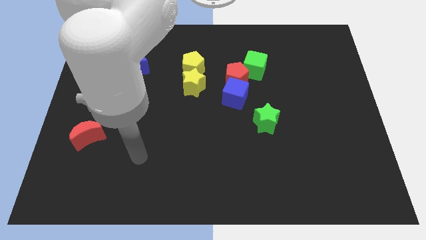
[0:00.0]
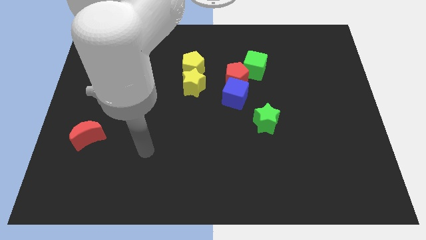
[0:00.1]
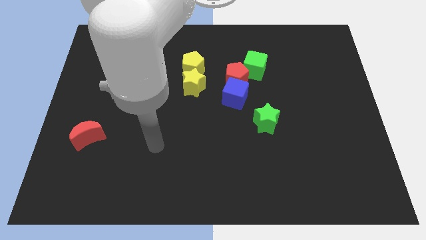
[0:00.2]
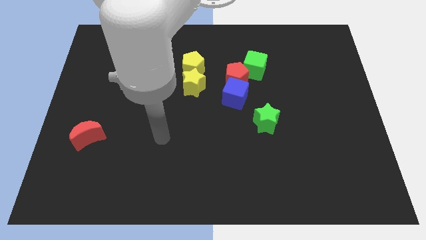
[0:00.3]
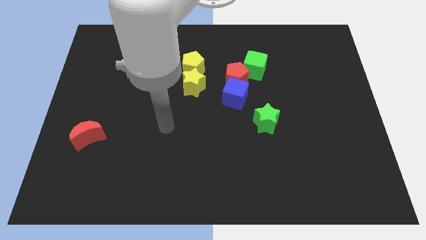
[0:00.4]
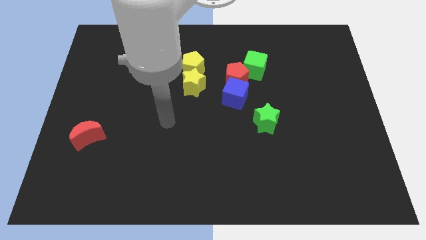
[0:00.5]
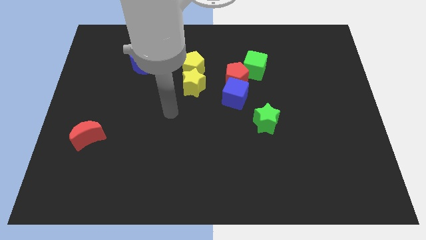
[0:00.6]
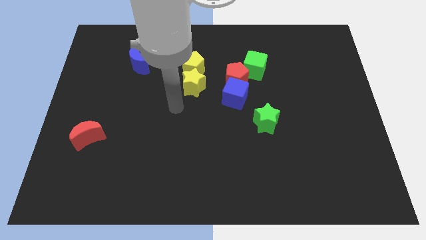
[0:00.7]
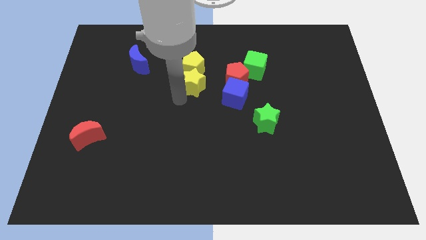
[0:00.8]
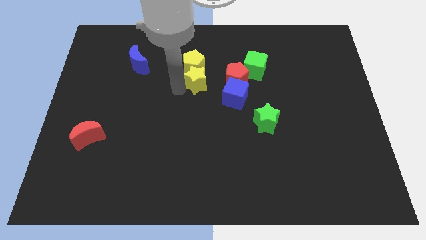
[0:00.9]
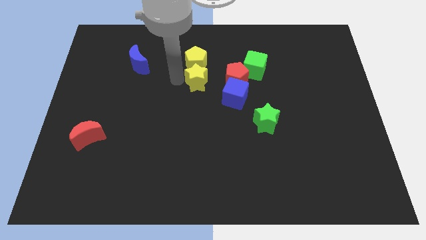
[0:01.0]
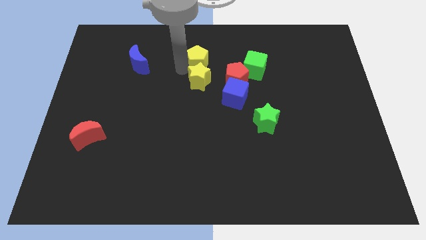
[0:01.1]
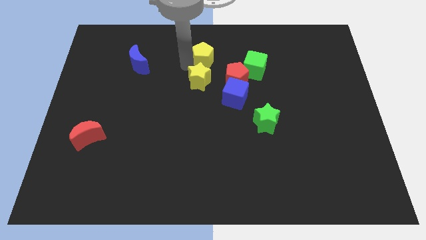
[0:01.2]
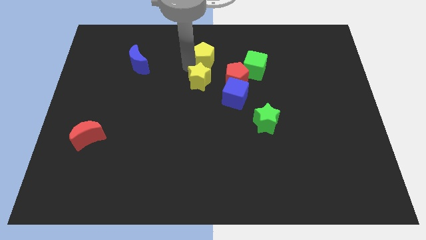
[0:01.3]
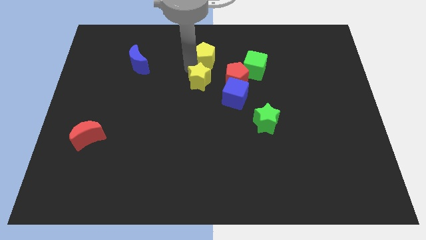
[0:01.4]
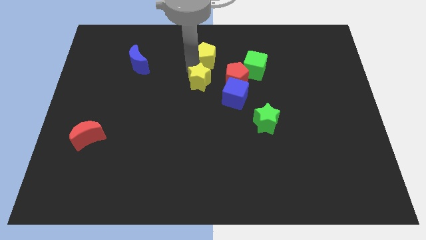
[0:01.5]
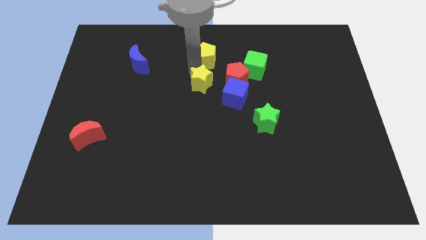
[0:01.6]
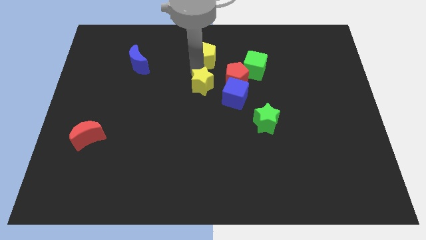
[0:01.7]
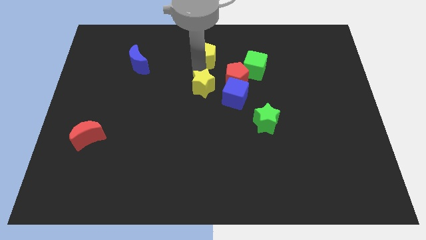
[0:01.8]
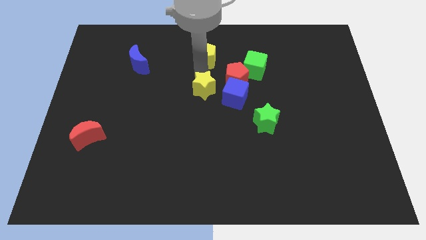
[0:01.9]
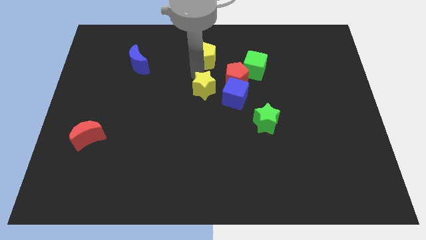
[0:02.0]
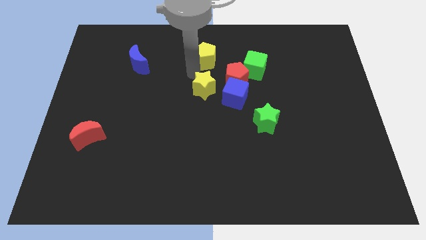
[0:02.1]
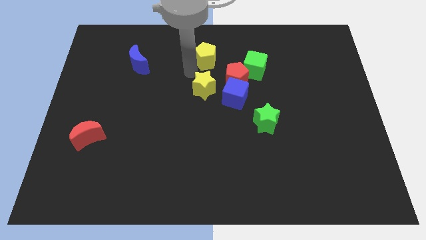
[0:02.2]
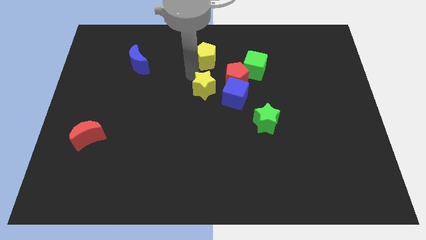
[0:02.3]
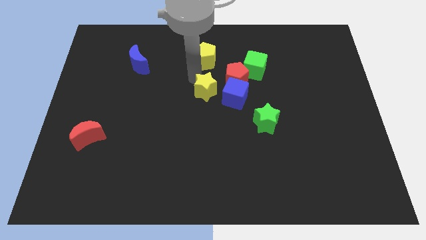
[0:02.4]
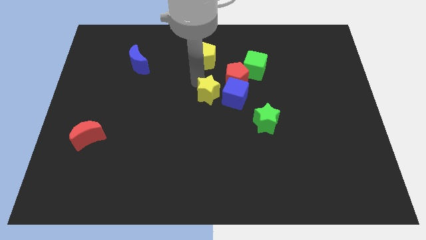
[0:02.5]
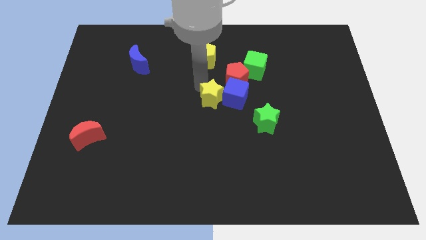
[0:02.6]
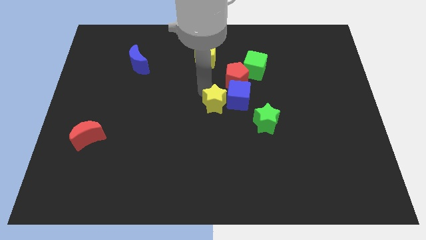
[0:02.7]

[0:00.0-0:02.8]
push the yellow star downwards and to the right diagonally a little

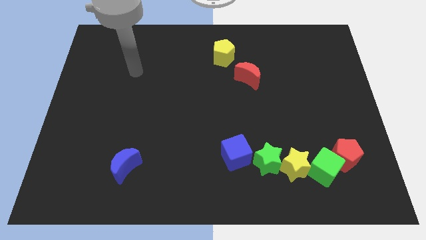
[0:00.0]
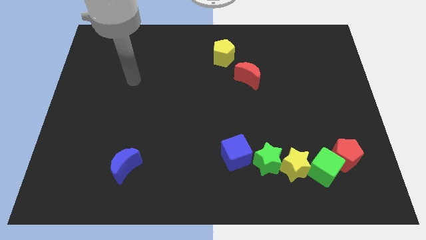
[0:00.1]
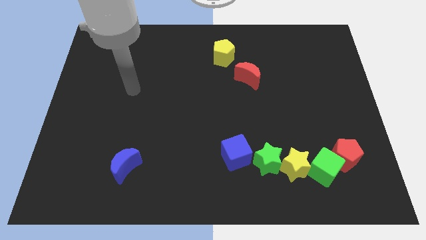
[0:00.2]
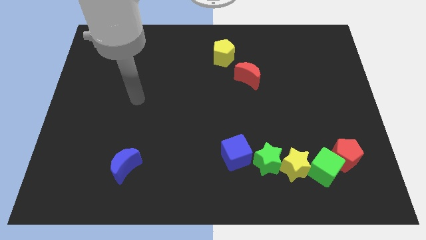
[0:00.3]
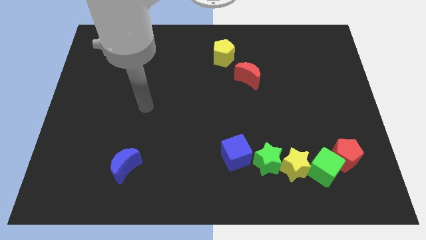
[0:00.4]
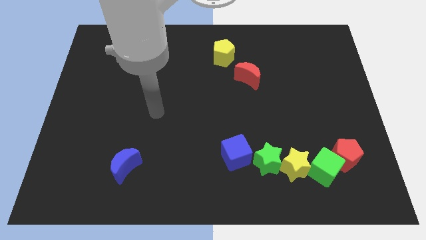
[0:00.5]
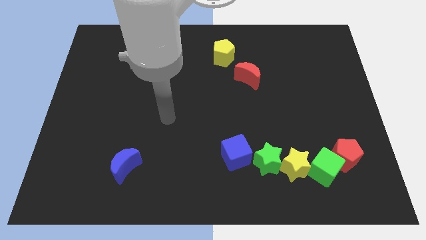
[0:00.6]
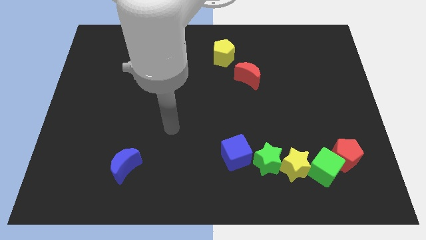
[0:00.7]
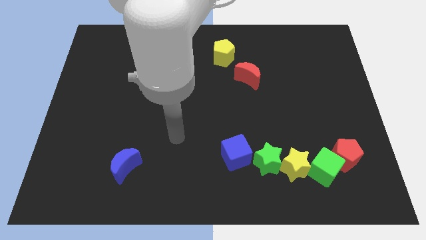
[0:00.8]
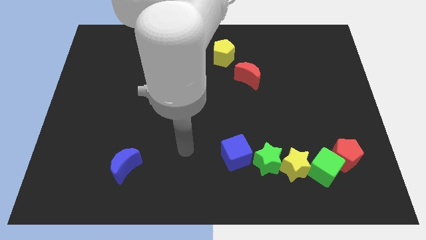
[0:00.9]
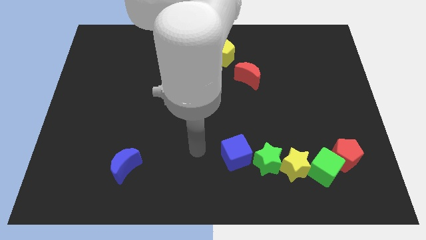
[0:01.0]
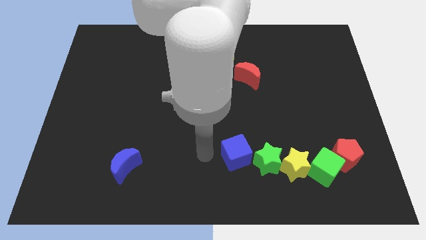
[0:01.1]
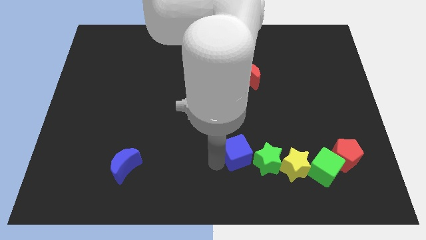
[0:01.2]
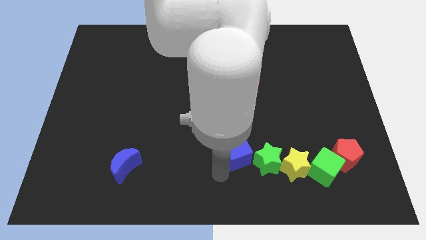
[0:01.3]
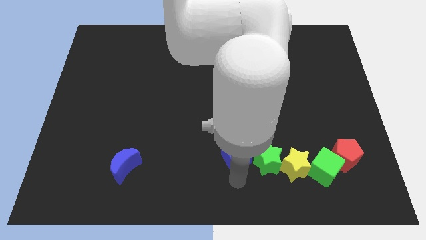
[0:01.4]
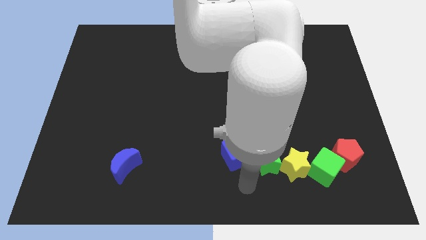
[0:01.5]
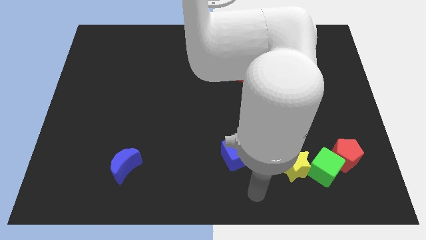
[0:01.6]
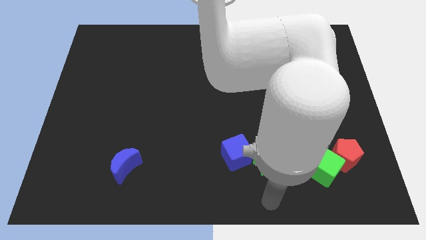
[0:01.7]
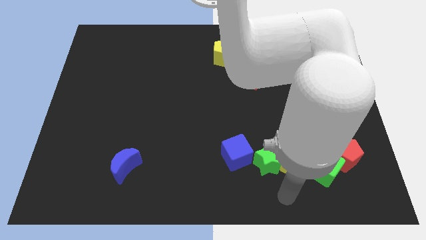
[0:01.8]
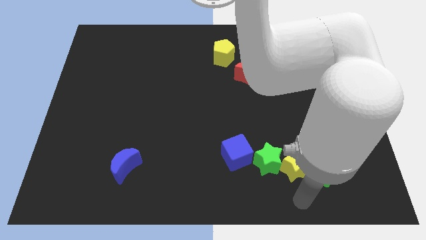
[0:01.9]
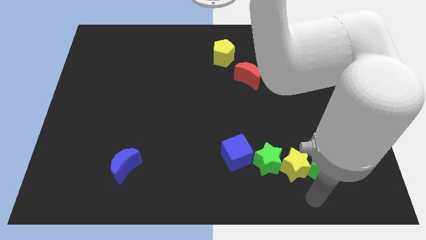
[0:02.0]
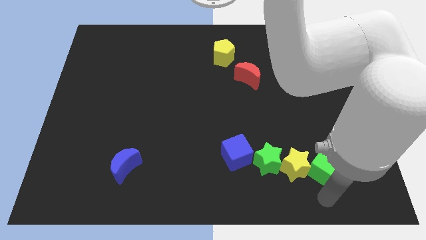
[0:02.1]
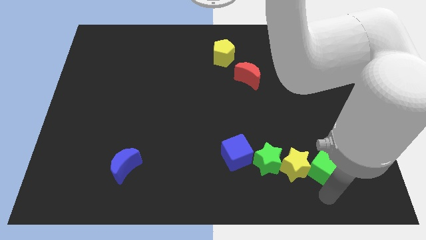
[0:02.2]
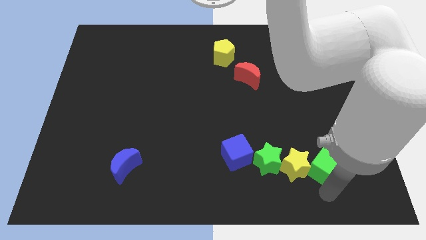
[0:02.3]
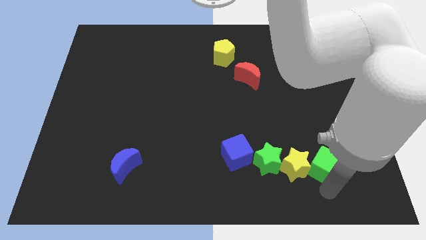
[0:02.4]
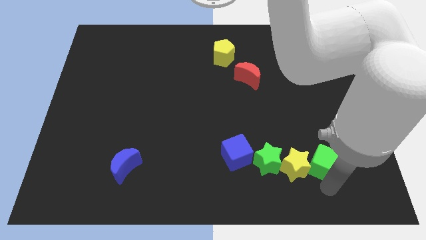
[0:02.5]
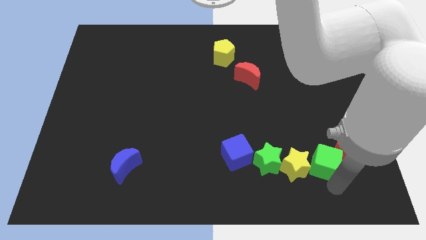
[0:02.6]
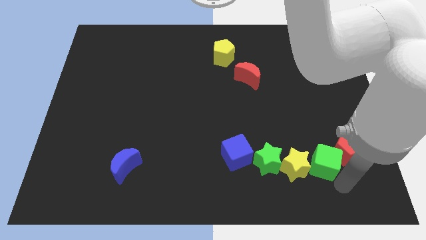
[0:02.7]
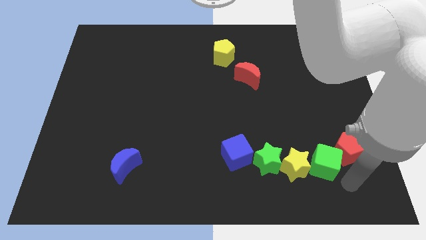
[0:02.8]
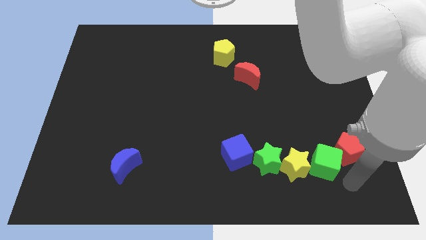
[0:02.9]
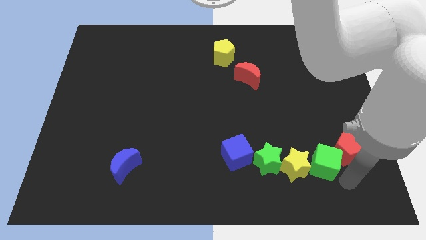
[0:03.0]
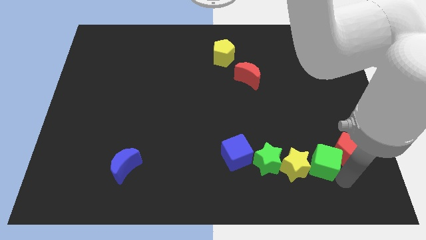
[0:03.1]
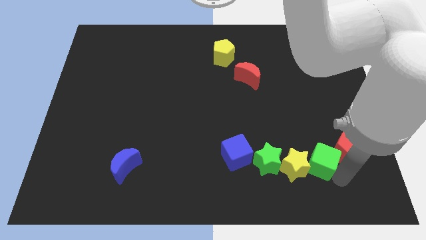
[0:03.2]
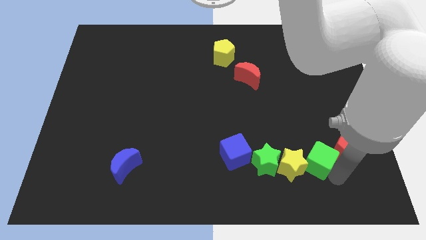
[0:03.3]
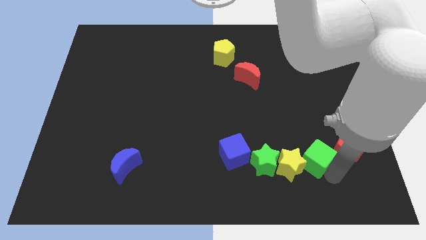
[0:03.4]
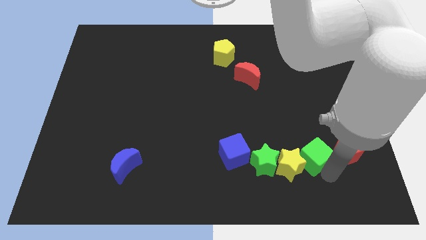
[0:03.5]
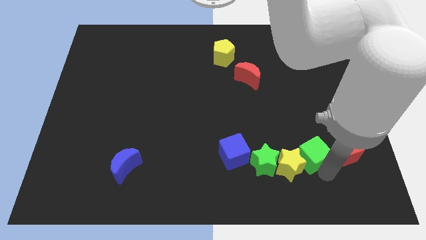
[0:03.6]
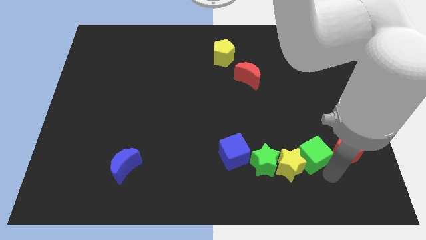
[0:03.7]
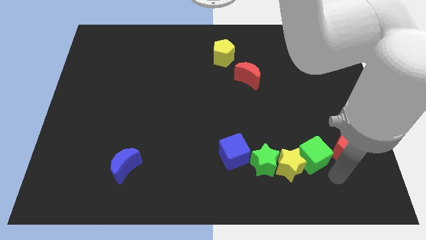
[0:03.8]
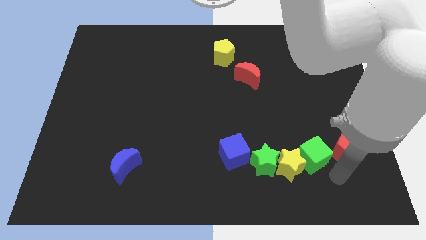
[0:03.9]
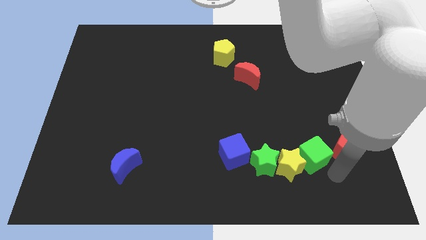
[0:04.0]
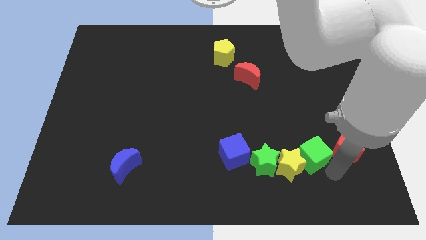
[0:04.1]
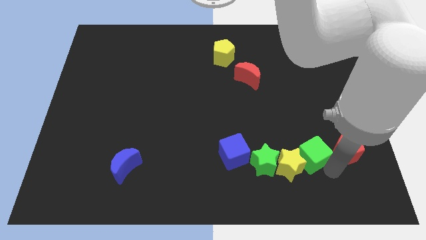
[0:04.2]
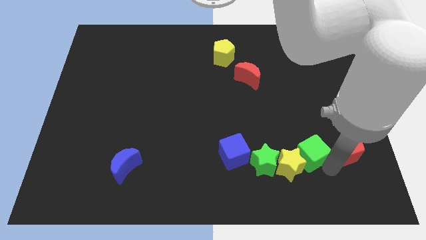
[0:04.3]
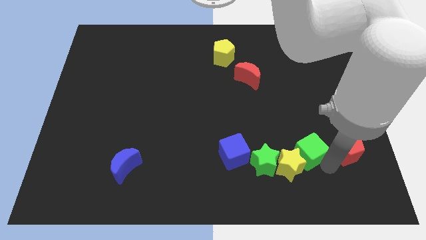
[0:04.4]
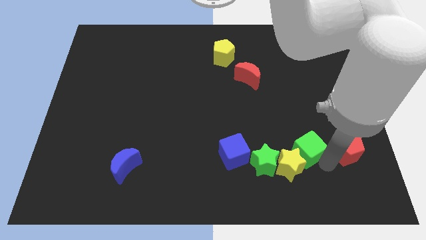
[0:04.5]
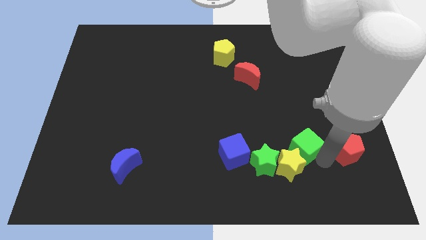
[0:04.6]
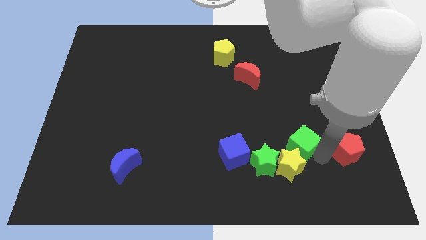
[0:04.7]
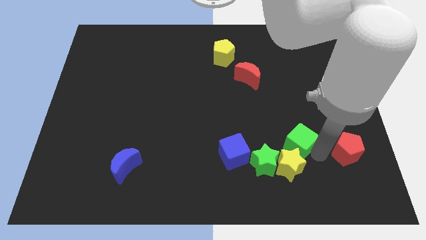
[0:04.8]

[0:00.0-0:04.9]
slightly move the green cube upwards and left

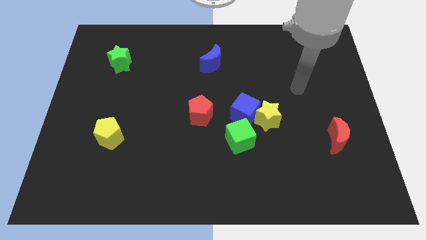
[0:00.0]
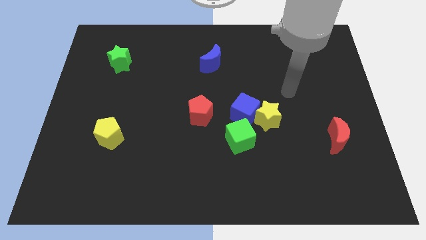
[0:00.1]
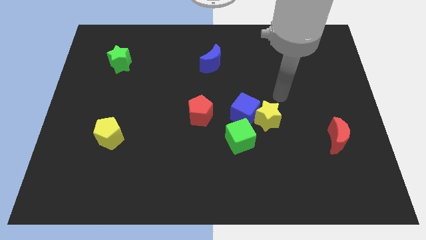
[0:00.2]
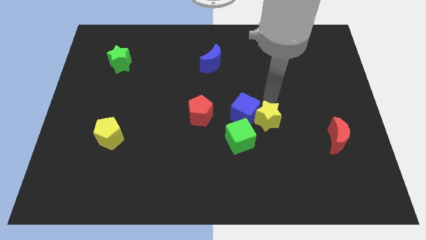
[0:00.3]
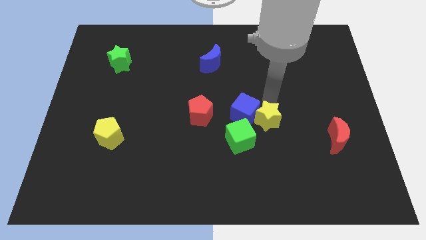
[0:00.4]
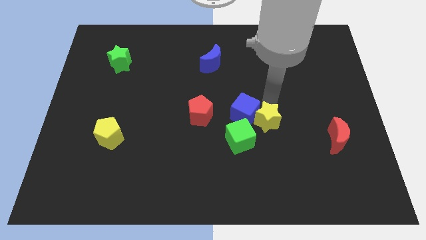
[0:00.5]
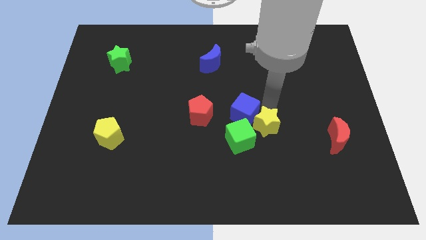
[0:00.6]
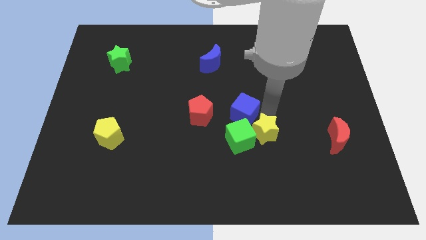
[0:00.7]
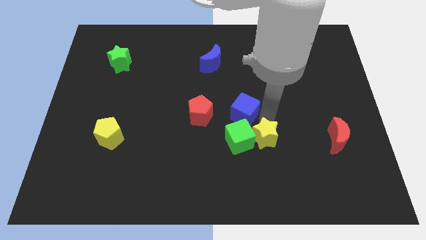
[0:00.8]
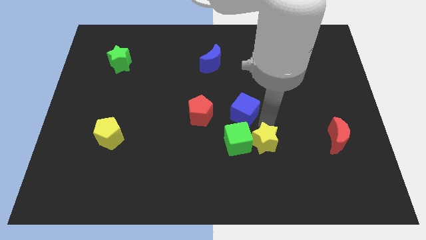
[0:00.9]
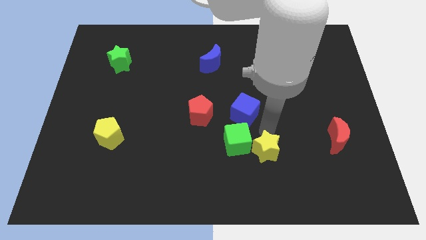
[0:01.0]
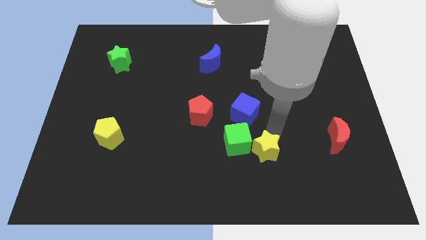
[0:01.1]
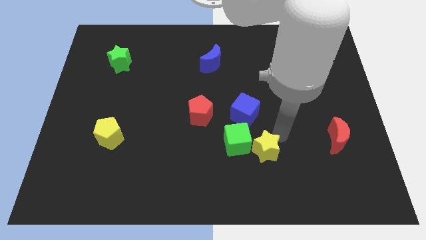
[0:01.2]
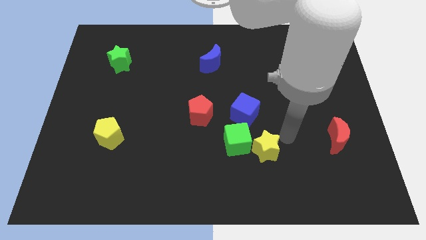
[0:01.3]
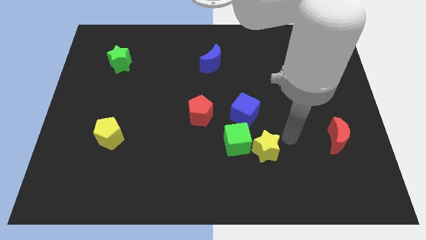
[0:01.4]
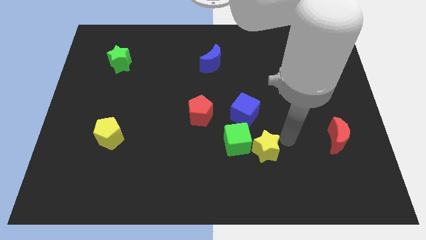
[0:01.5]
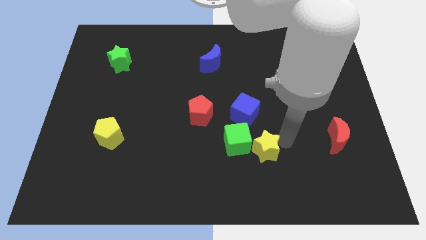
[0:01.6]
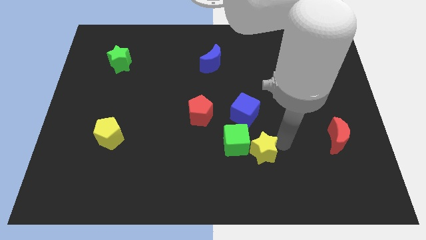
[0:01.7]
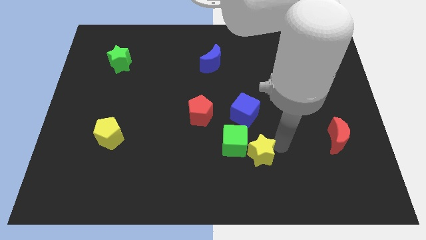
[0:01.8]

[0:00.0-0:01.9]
move the yellow star somewhat downwards and left
